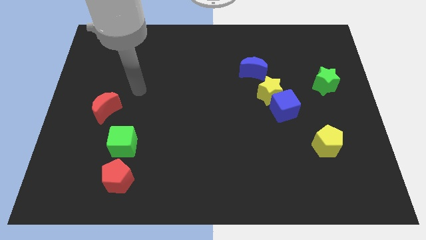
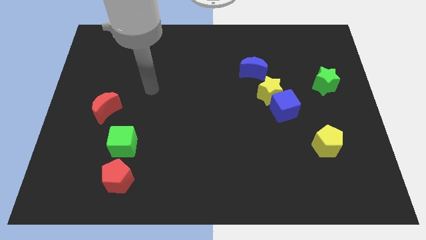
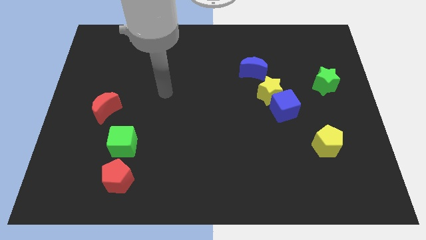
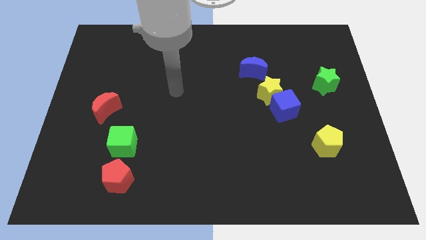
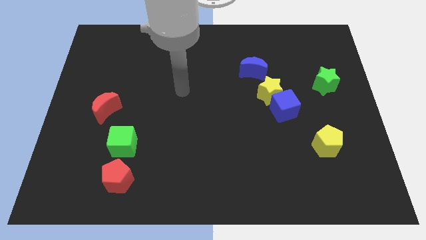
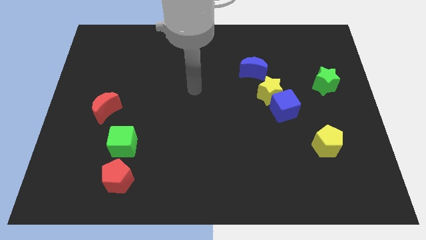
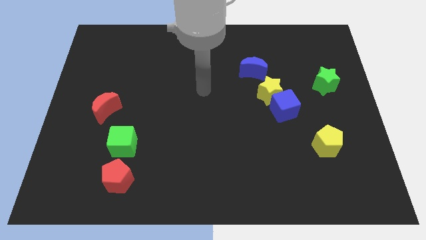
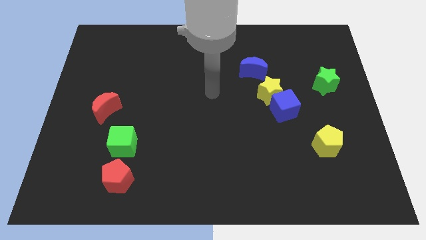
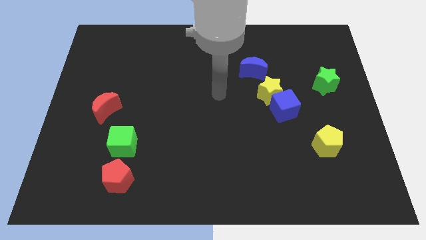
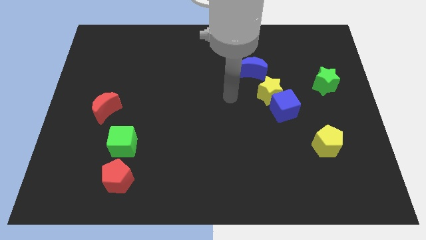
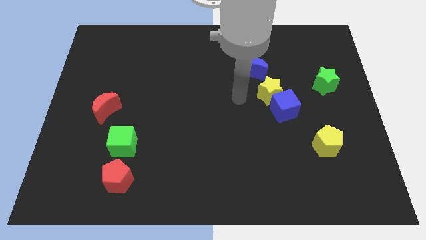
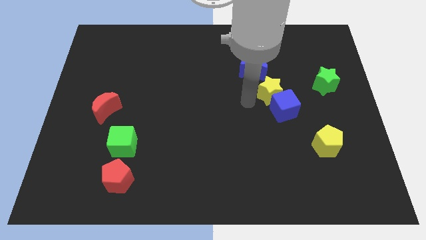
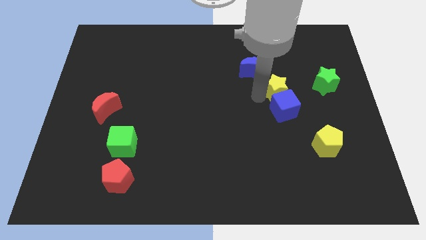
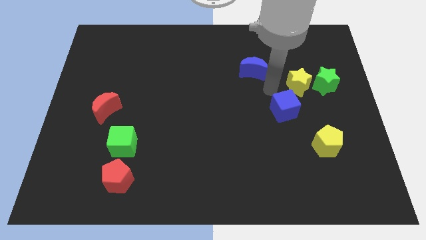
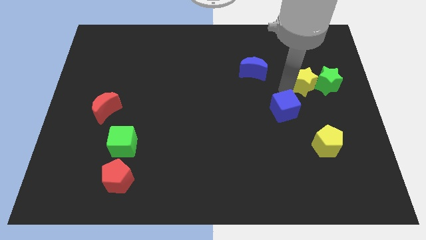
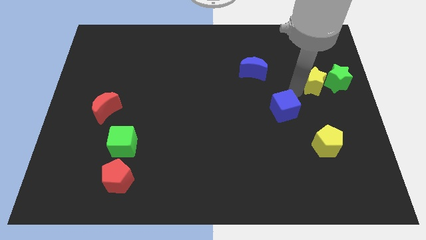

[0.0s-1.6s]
move the blue cube away from the yellow star

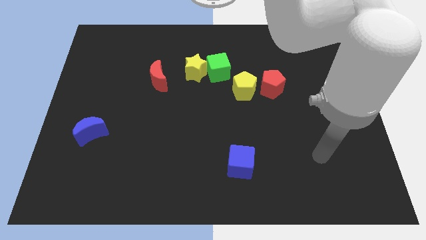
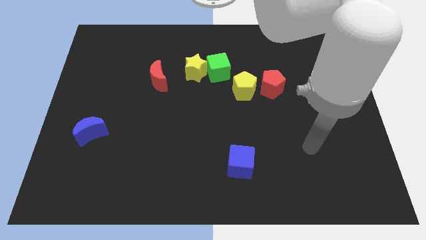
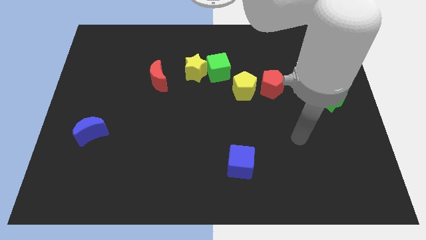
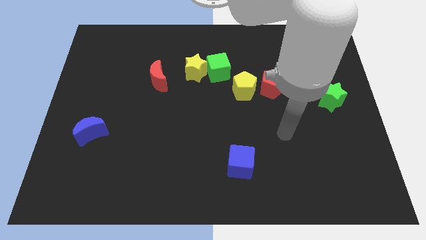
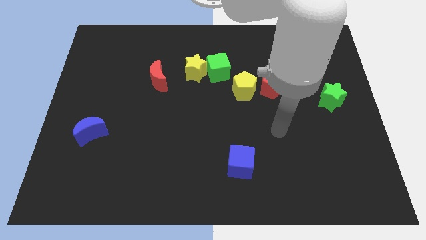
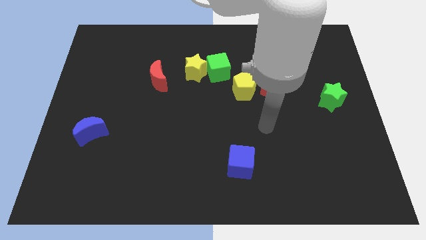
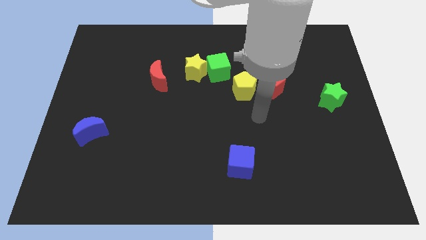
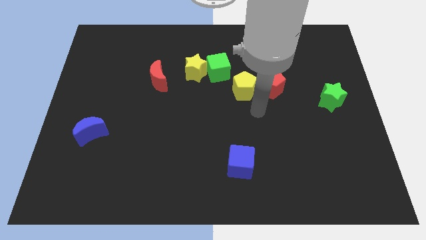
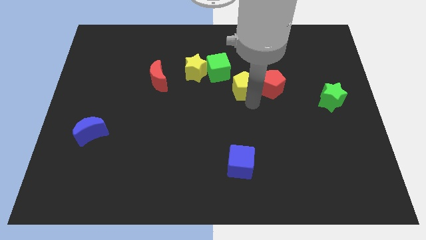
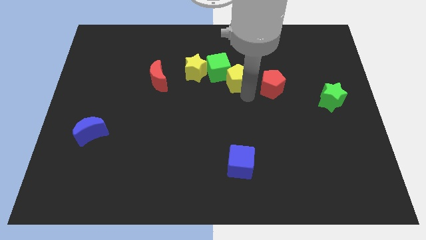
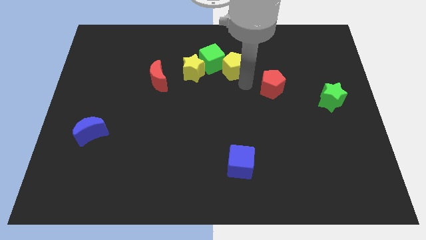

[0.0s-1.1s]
pull the red pentagon apart from the yellow pentagon

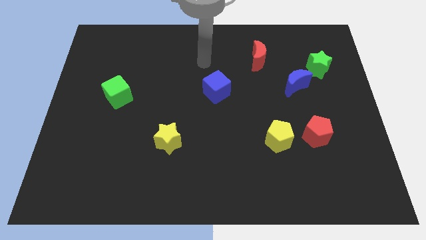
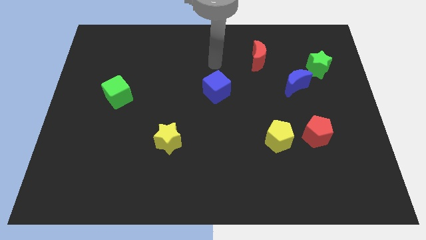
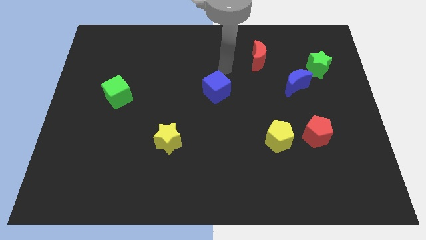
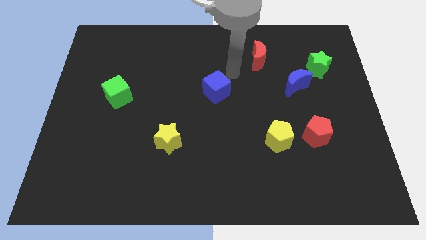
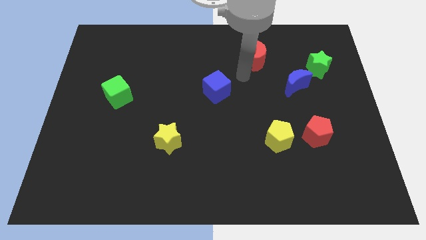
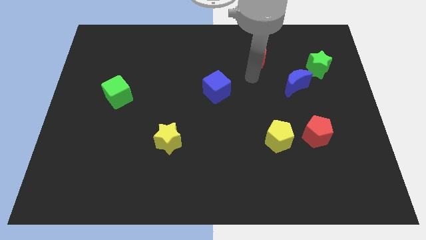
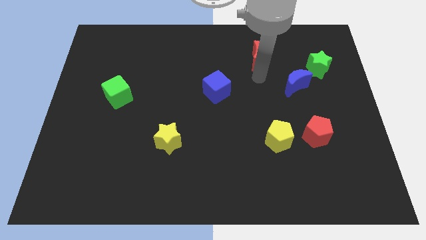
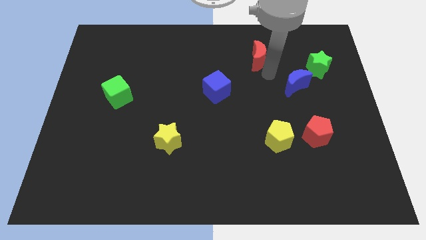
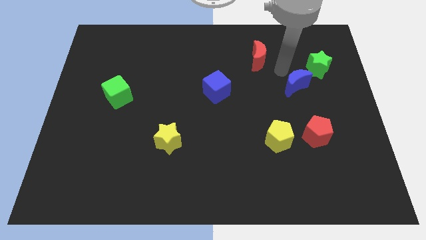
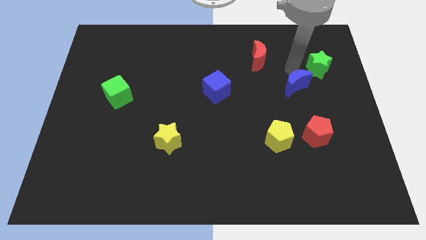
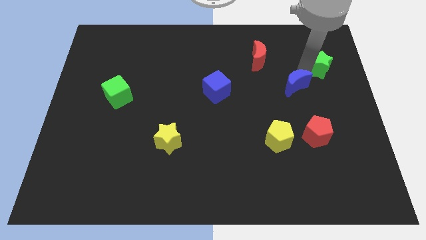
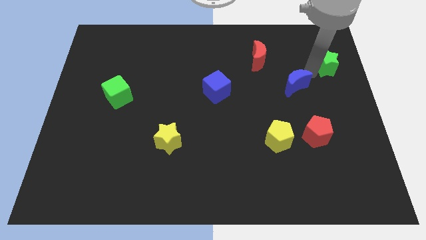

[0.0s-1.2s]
move the blue moon away from the green star

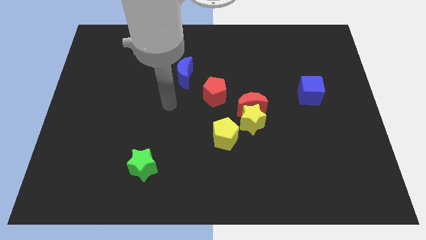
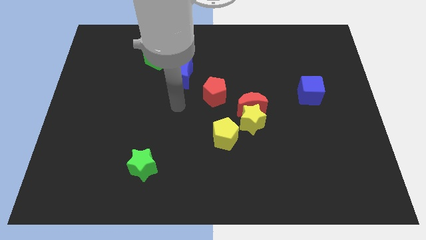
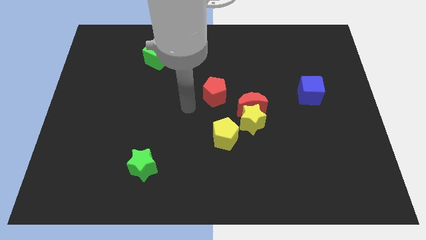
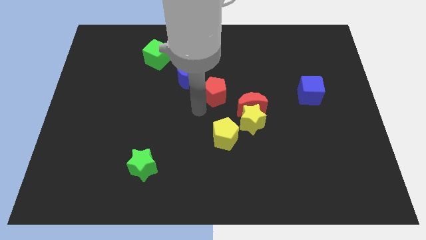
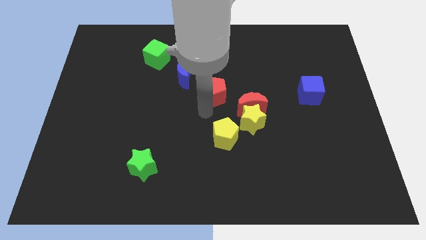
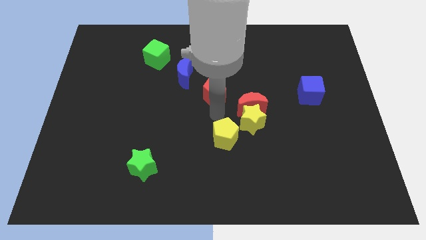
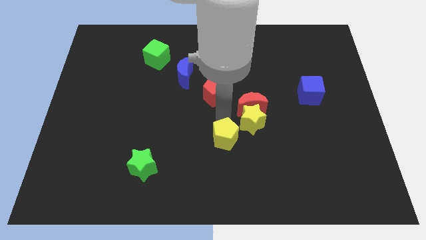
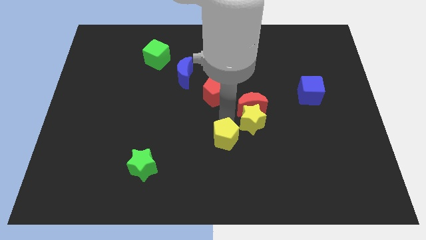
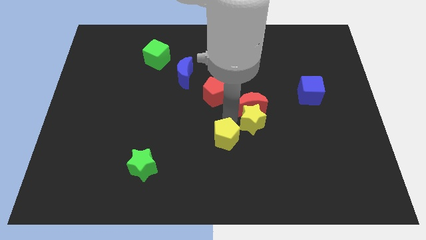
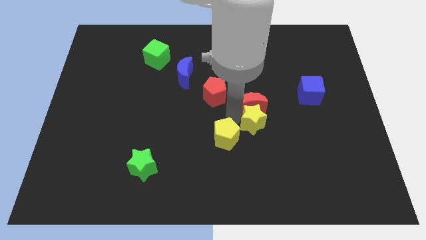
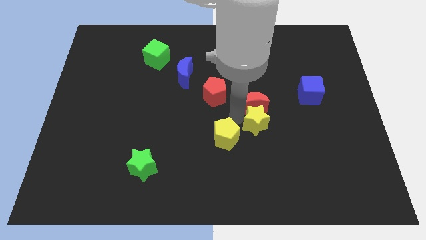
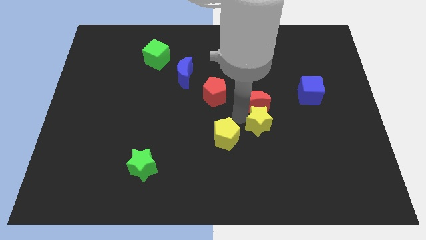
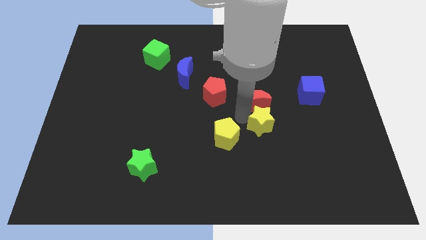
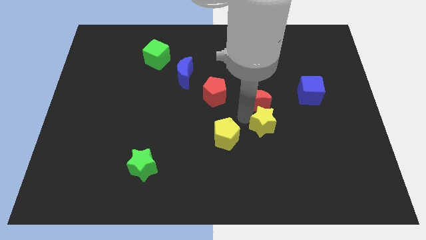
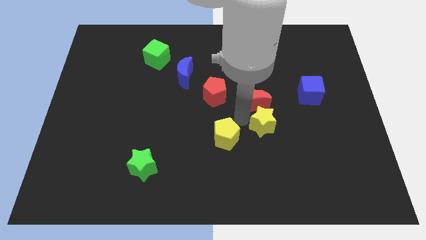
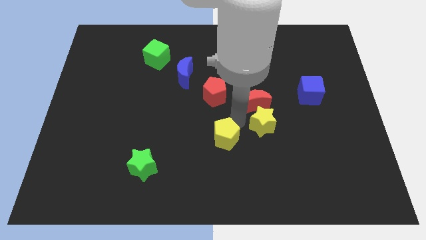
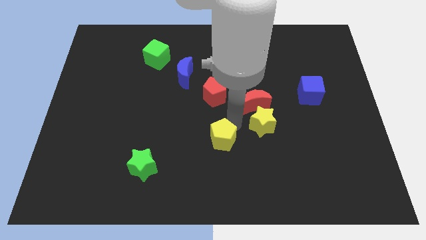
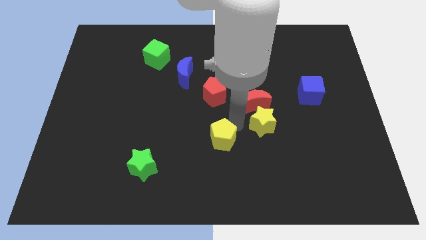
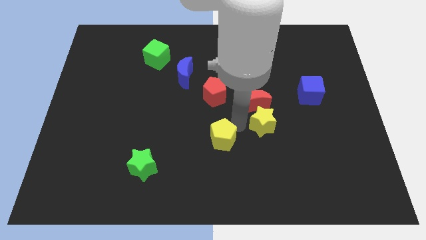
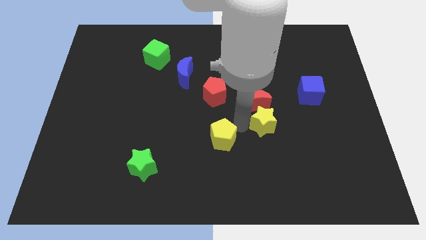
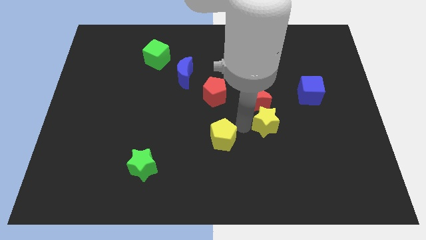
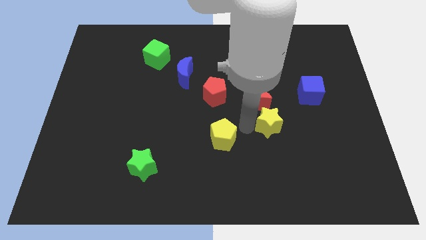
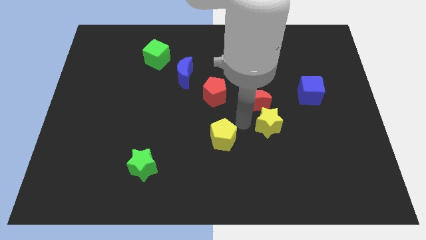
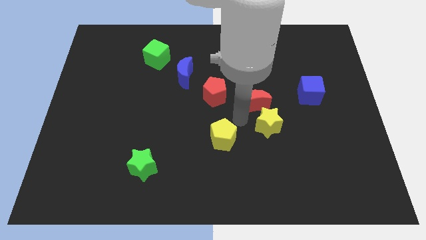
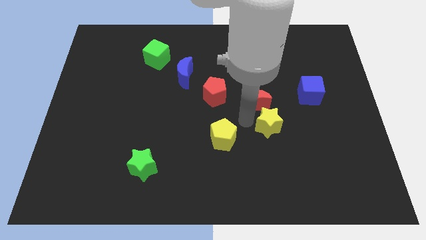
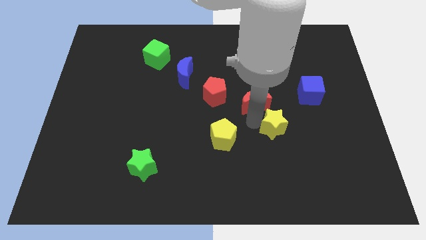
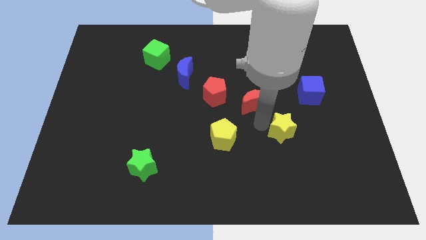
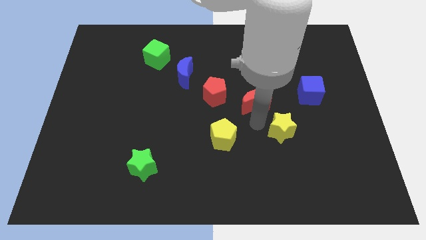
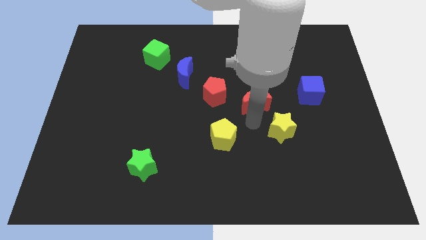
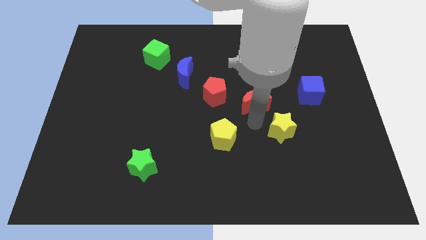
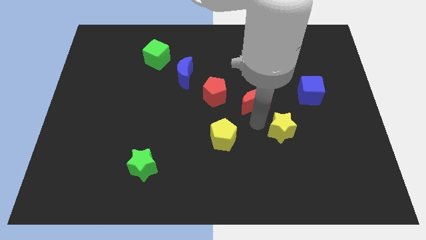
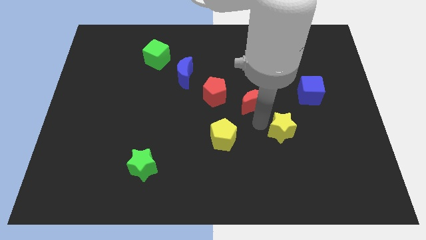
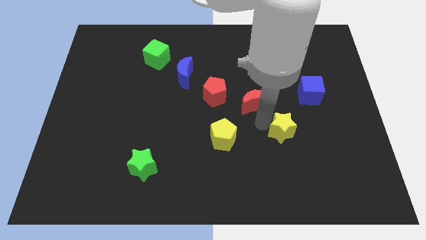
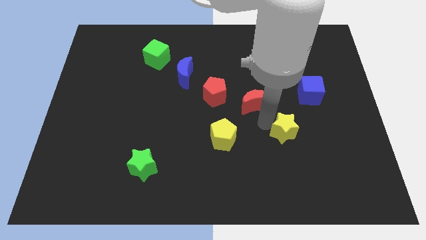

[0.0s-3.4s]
separate the yellow star from the red moon and yellow pentagon

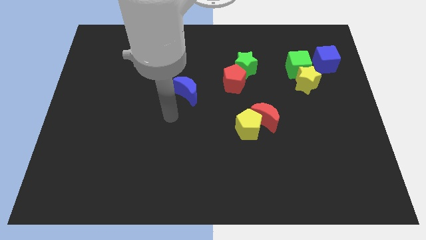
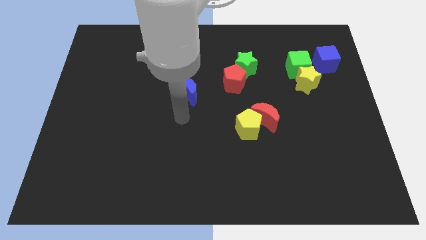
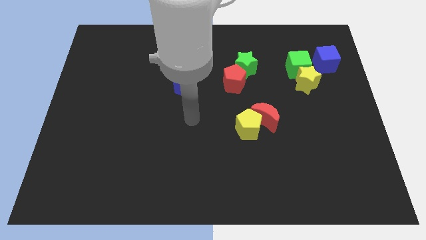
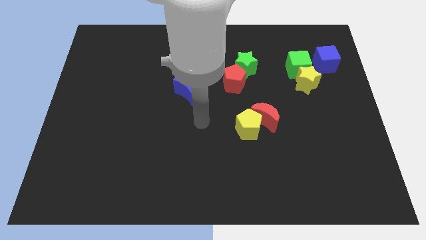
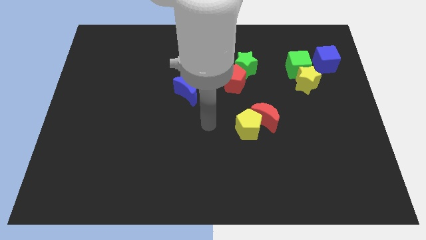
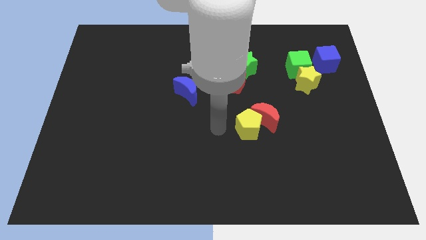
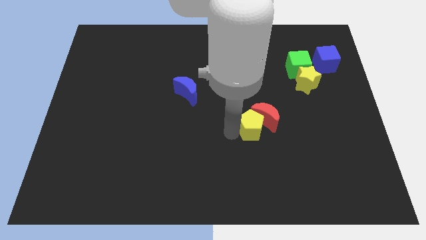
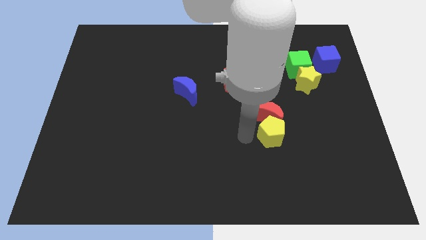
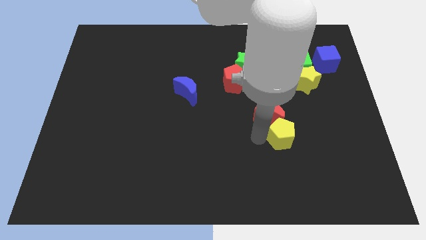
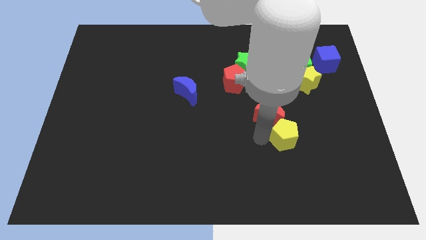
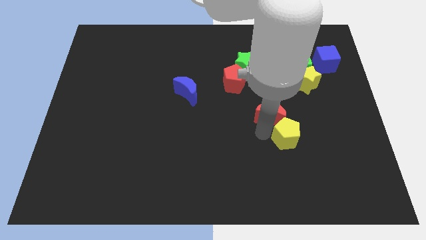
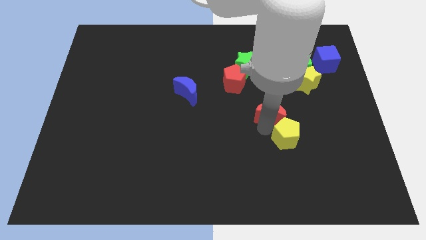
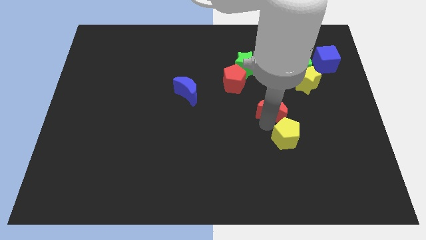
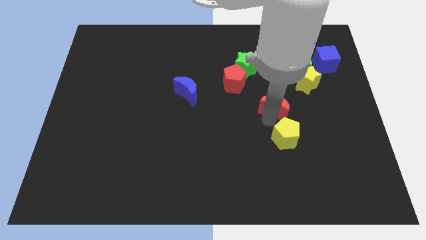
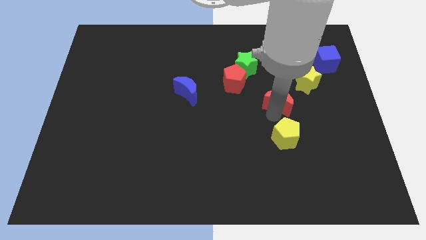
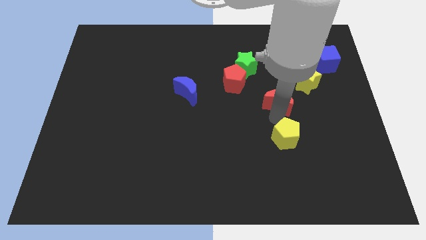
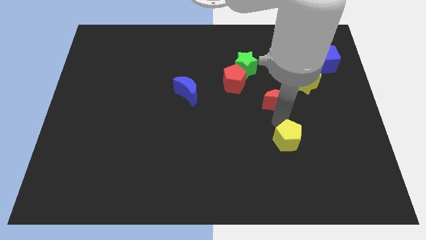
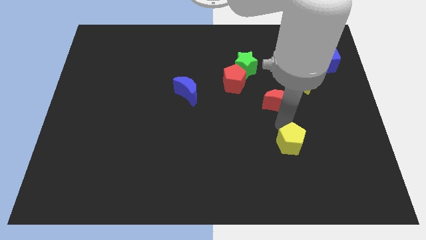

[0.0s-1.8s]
move the red moon away from the yellow pentagon

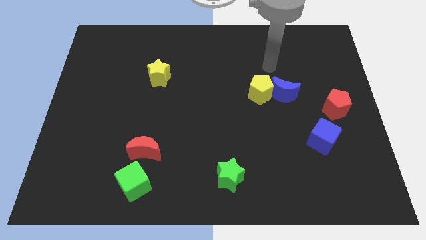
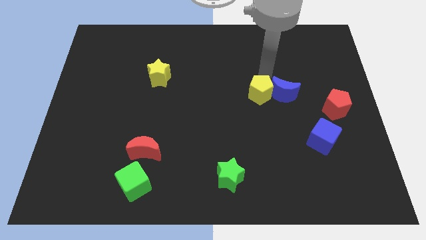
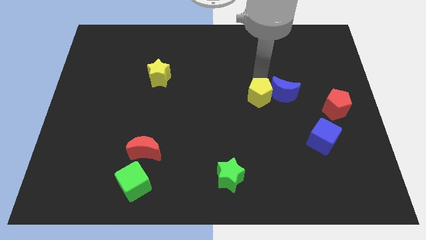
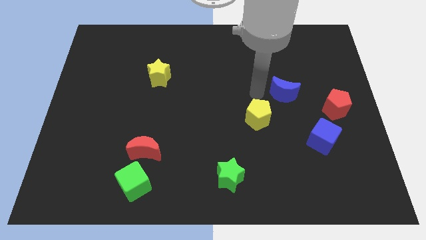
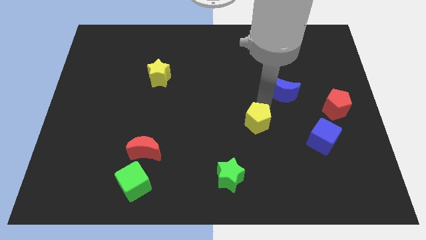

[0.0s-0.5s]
pull the blue moon apart from the yellow pentagon
